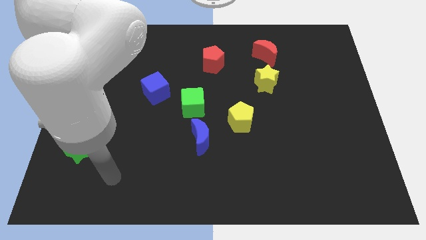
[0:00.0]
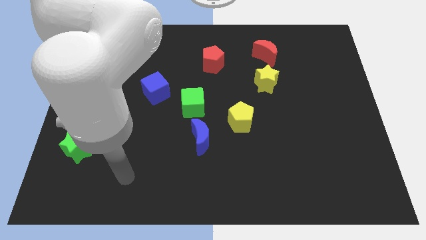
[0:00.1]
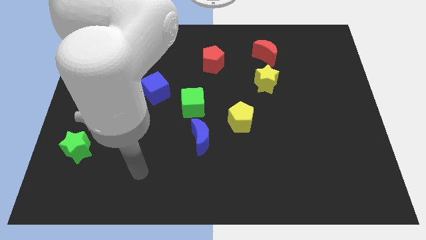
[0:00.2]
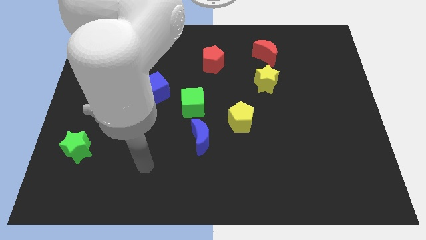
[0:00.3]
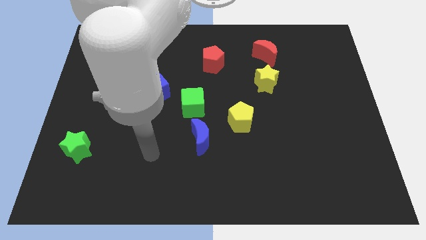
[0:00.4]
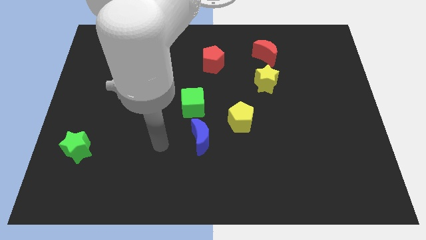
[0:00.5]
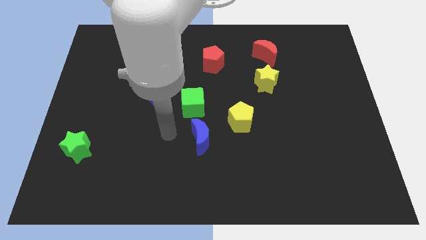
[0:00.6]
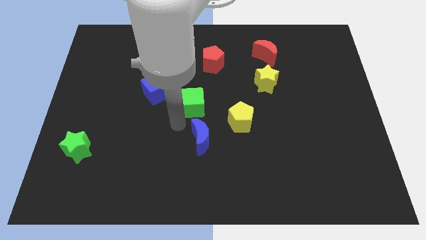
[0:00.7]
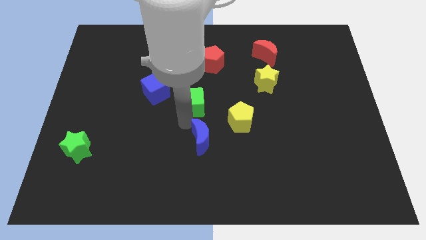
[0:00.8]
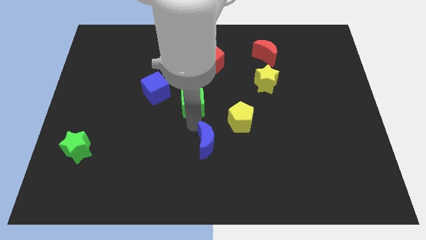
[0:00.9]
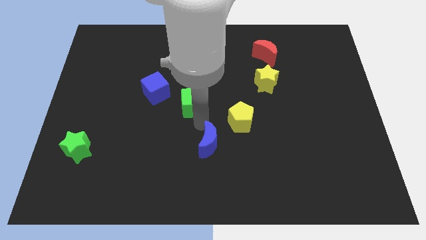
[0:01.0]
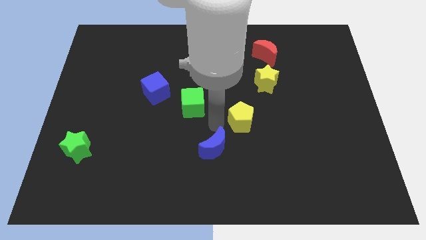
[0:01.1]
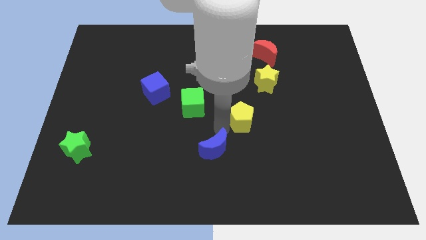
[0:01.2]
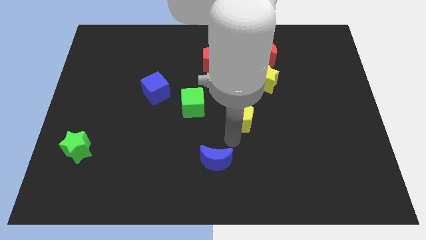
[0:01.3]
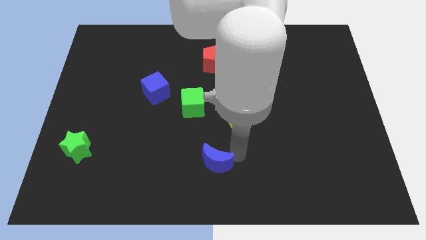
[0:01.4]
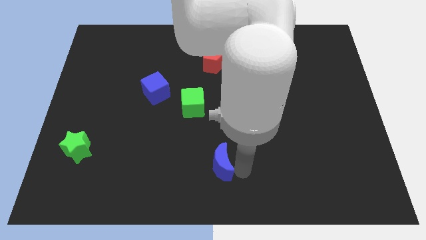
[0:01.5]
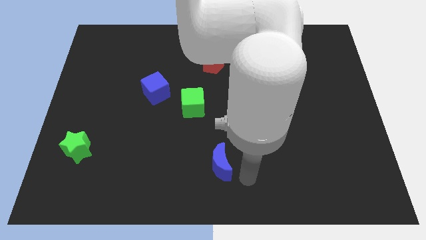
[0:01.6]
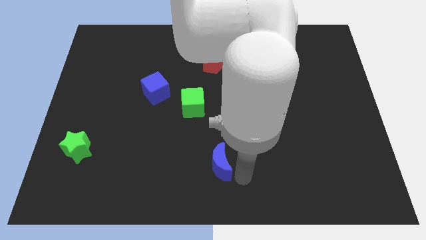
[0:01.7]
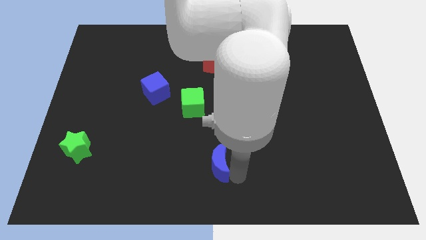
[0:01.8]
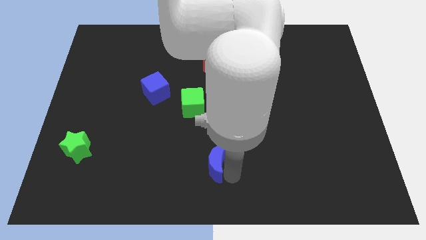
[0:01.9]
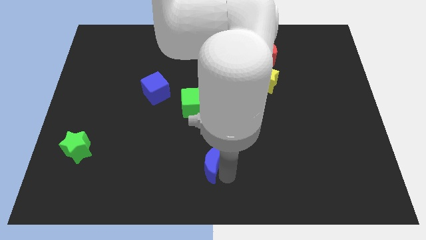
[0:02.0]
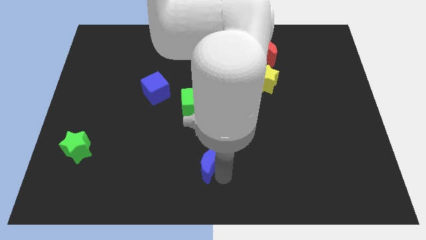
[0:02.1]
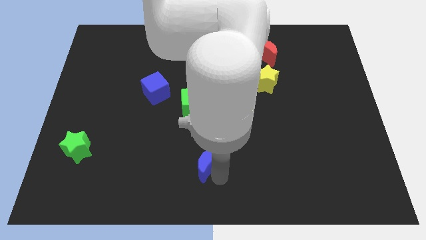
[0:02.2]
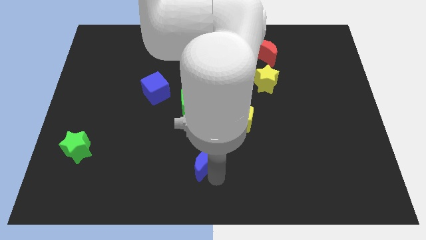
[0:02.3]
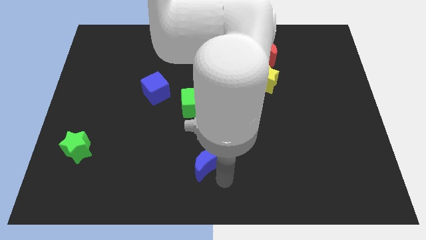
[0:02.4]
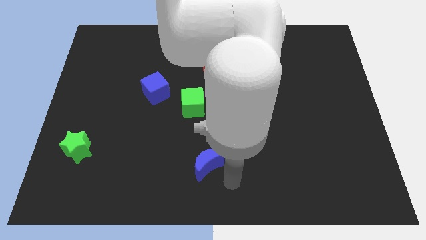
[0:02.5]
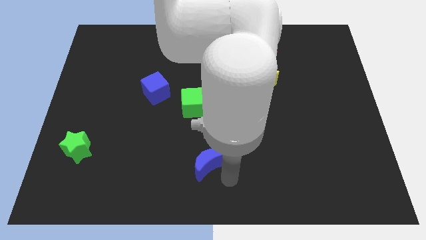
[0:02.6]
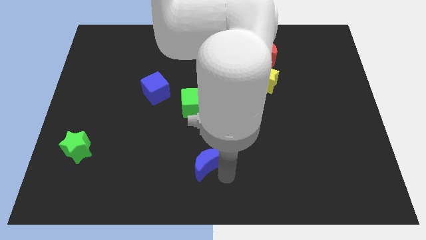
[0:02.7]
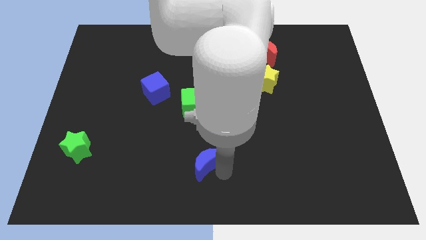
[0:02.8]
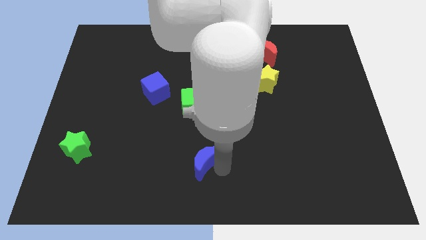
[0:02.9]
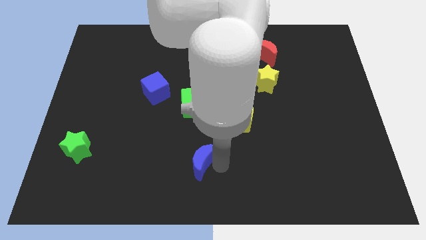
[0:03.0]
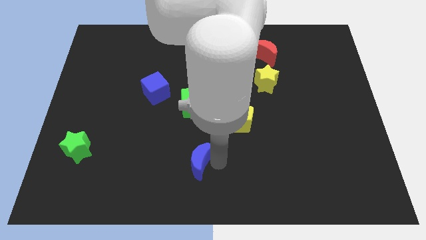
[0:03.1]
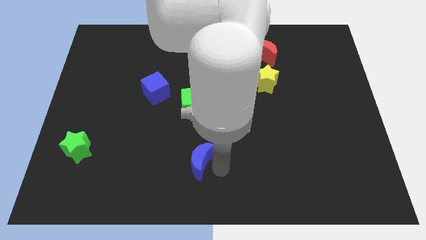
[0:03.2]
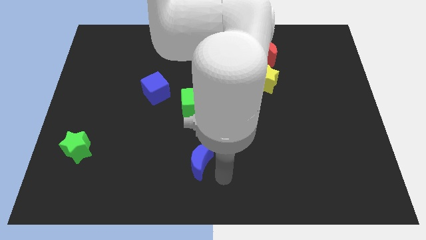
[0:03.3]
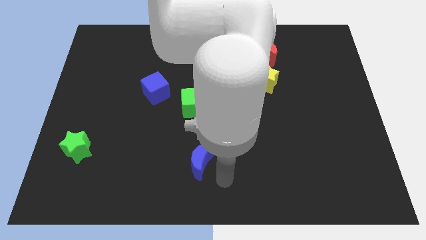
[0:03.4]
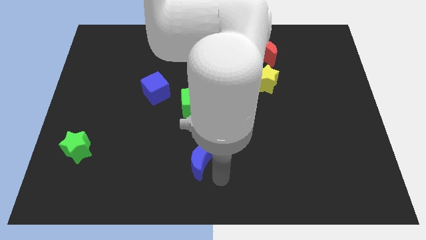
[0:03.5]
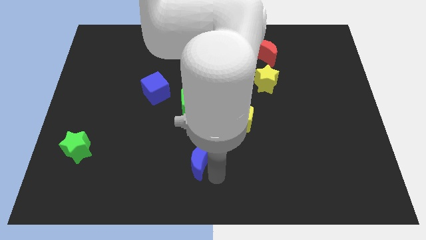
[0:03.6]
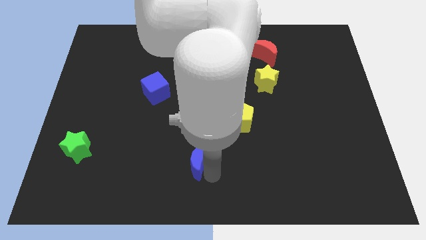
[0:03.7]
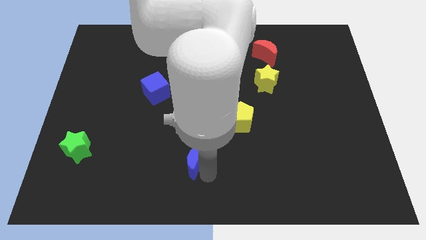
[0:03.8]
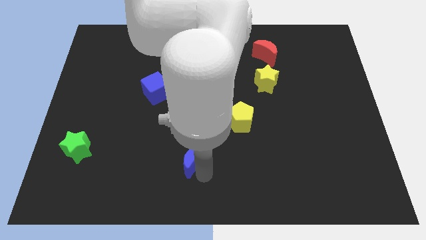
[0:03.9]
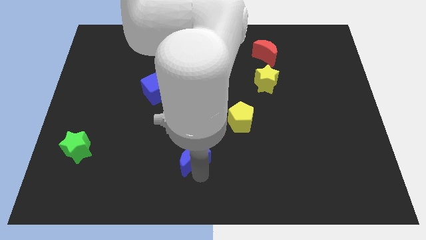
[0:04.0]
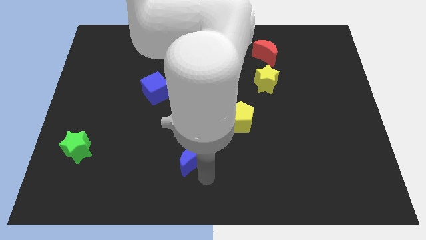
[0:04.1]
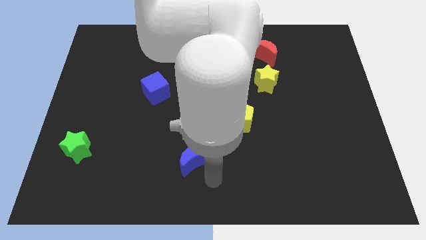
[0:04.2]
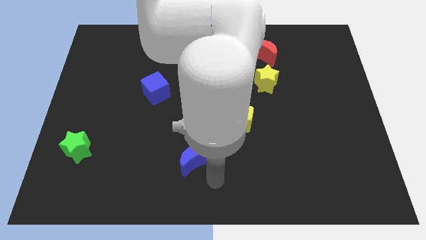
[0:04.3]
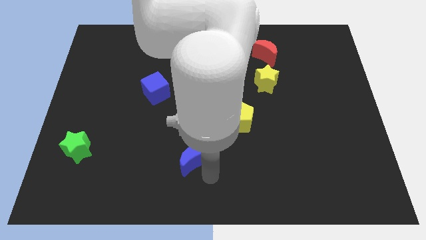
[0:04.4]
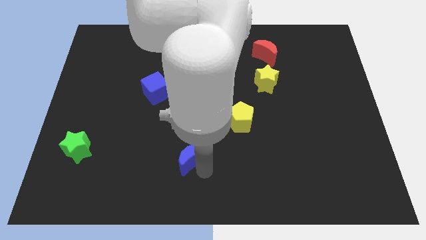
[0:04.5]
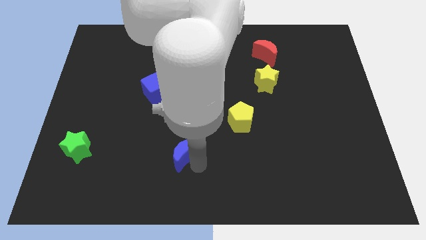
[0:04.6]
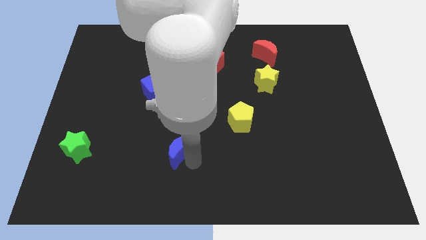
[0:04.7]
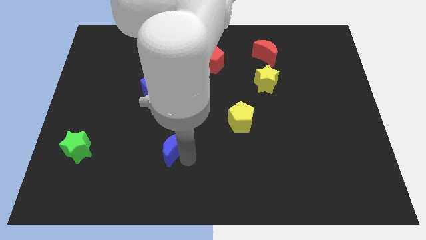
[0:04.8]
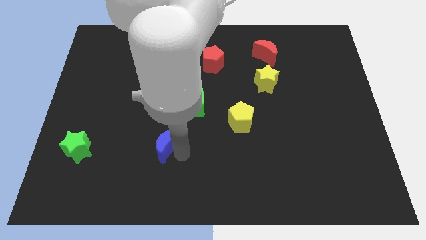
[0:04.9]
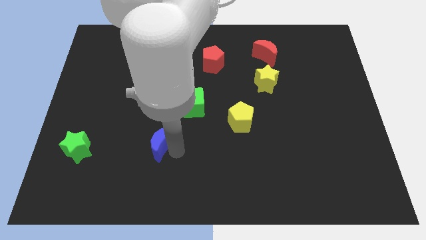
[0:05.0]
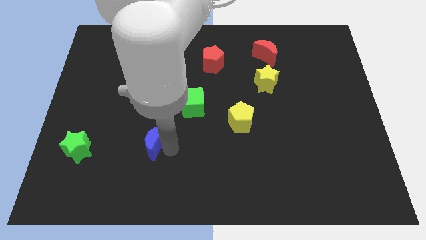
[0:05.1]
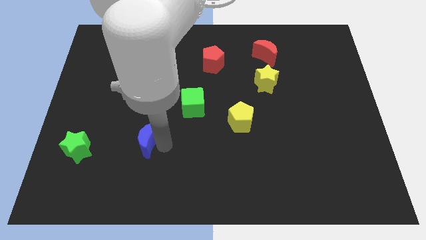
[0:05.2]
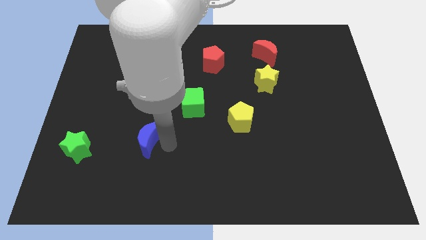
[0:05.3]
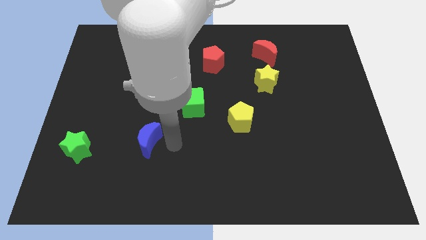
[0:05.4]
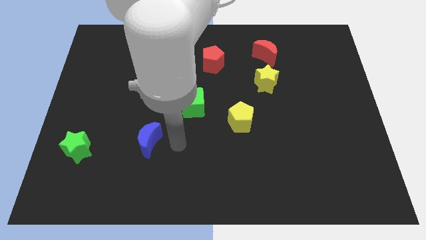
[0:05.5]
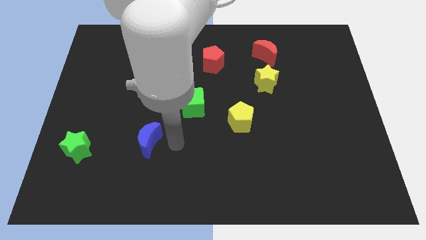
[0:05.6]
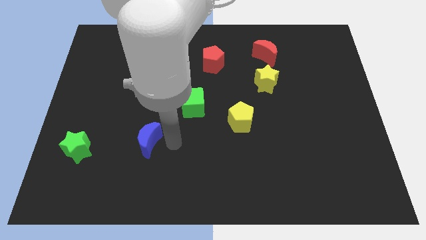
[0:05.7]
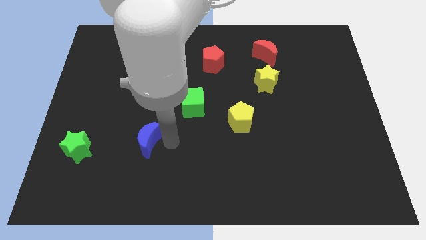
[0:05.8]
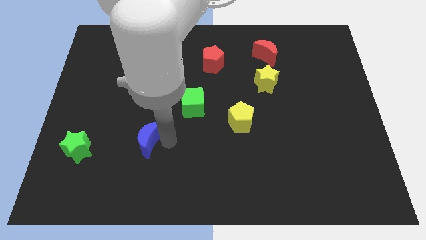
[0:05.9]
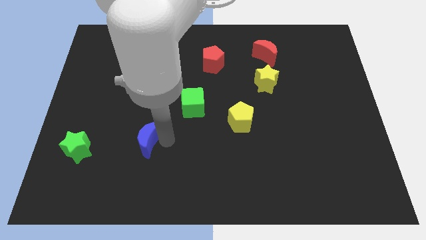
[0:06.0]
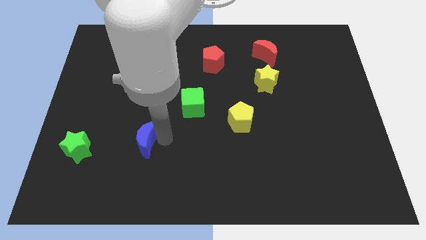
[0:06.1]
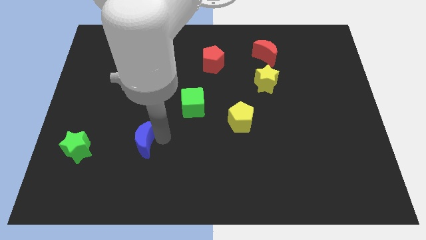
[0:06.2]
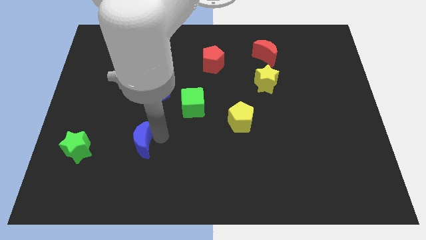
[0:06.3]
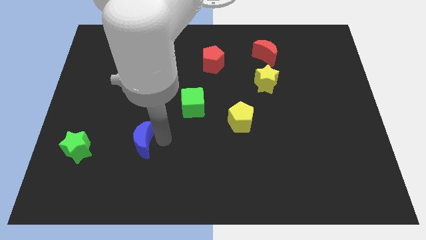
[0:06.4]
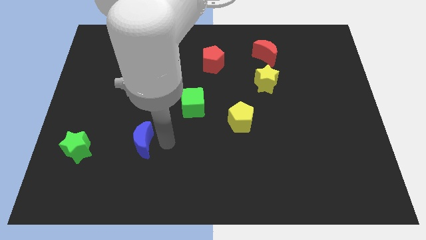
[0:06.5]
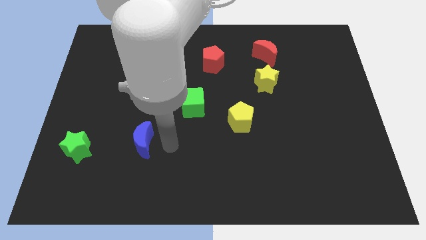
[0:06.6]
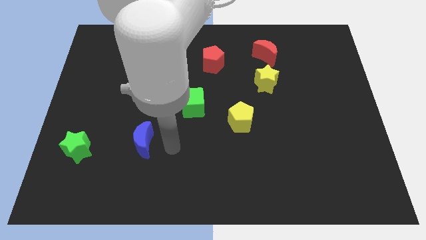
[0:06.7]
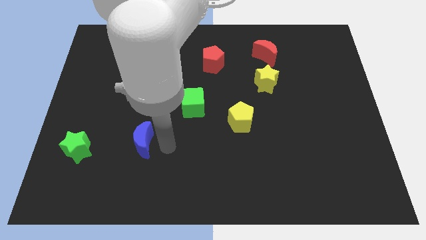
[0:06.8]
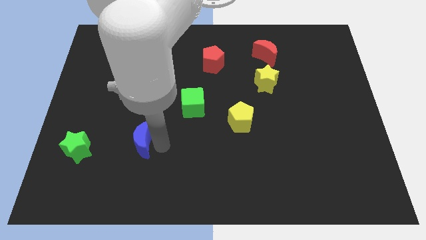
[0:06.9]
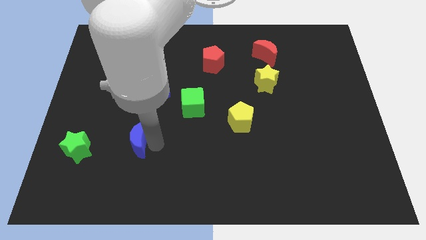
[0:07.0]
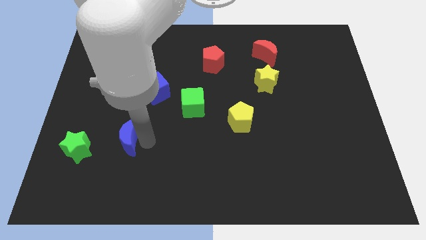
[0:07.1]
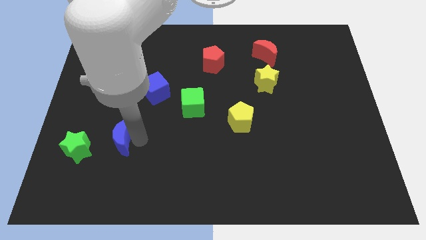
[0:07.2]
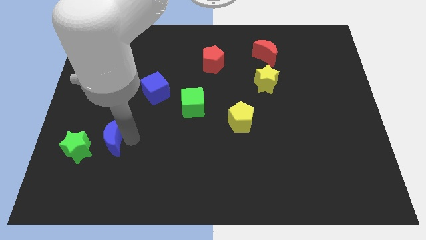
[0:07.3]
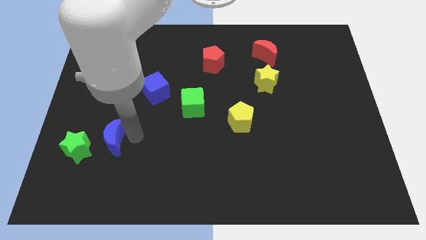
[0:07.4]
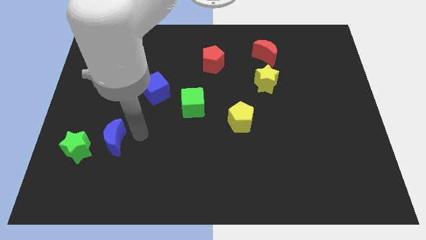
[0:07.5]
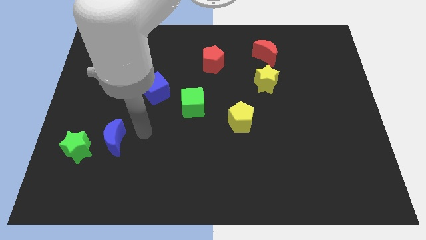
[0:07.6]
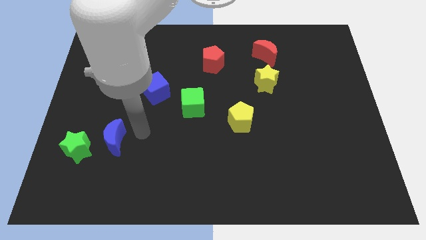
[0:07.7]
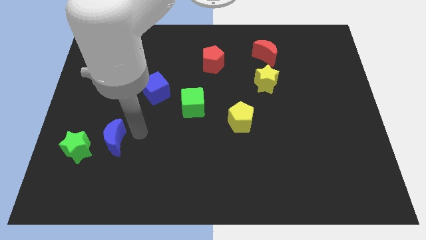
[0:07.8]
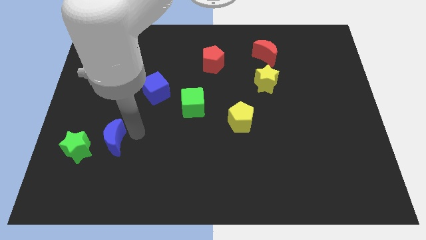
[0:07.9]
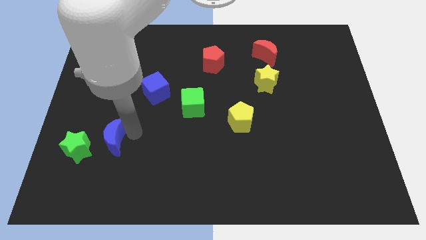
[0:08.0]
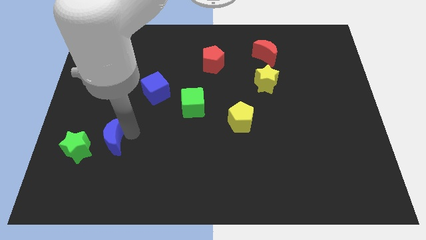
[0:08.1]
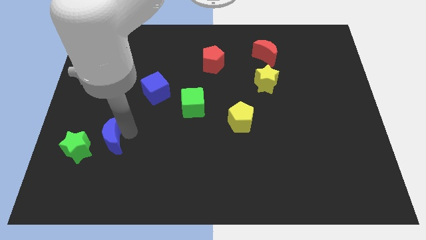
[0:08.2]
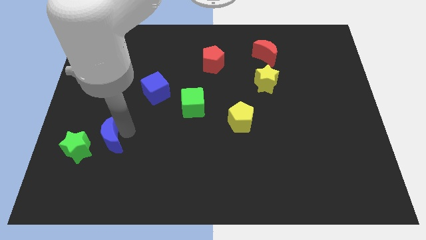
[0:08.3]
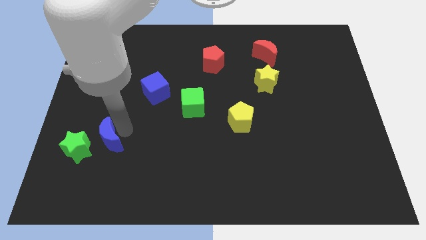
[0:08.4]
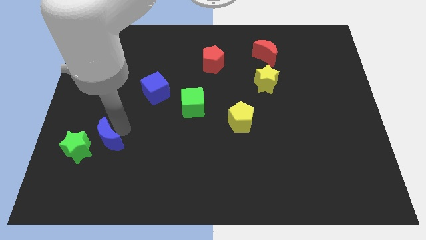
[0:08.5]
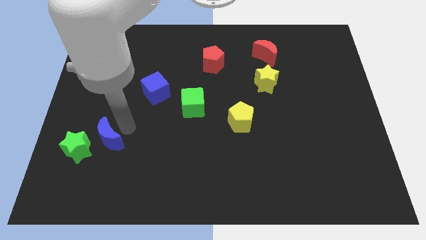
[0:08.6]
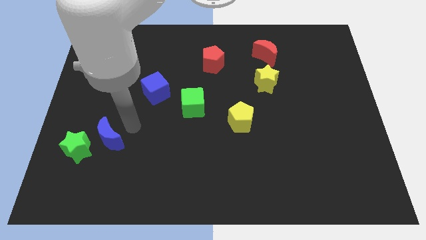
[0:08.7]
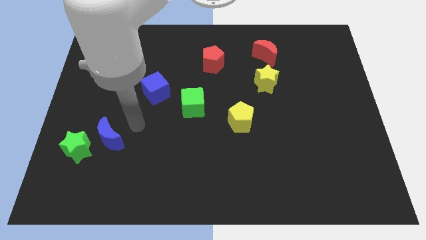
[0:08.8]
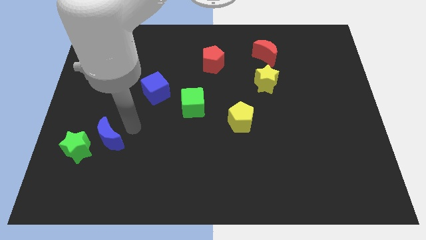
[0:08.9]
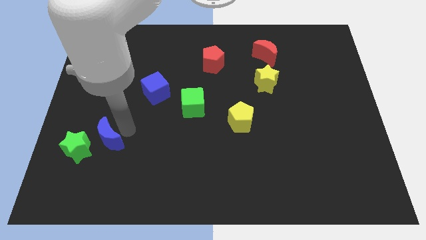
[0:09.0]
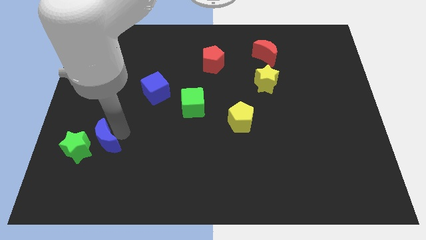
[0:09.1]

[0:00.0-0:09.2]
put the blue moon to the green star
